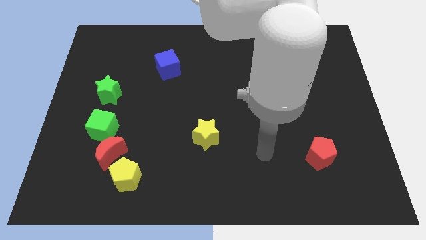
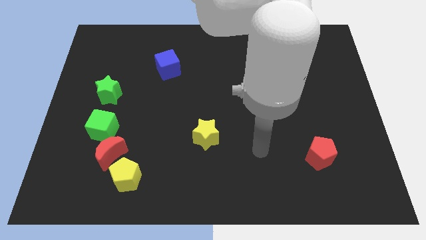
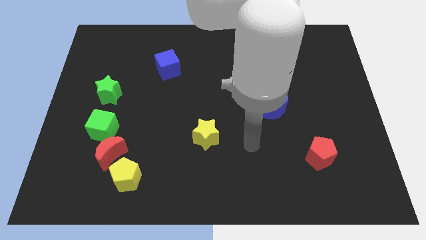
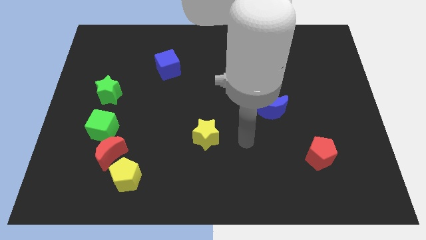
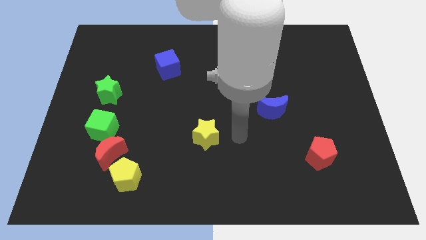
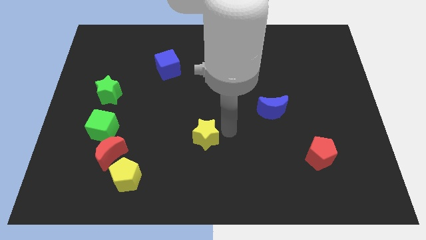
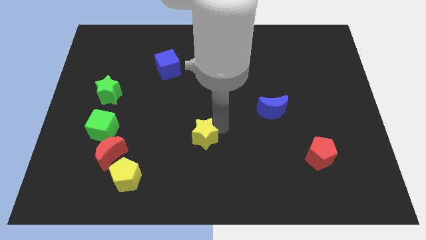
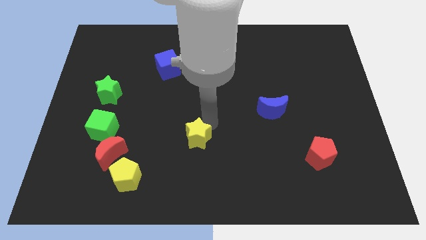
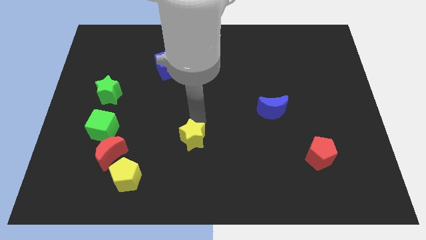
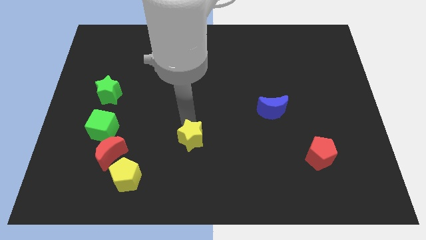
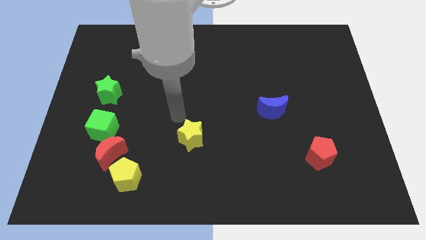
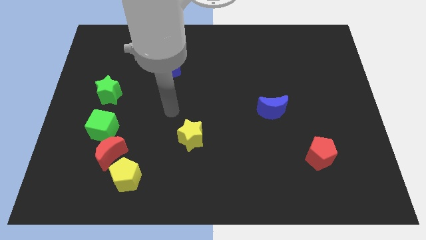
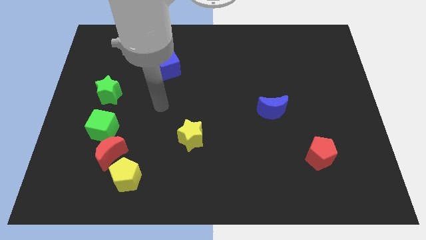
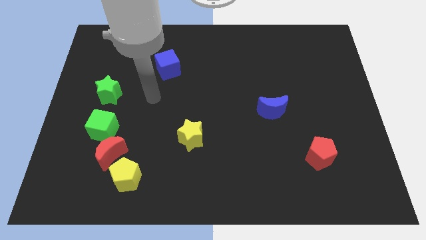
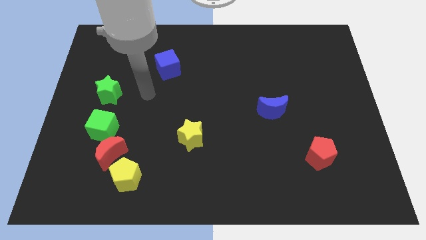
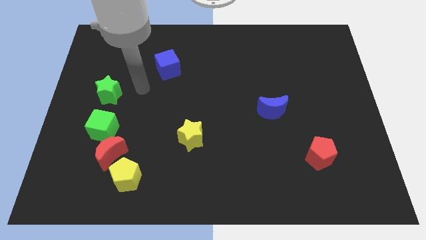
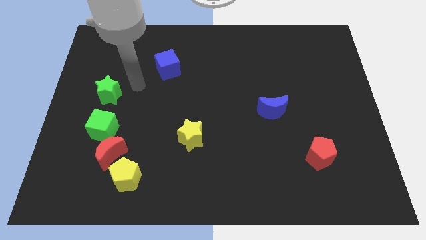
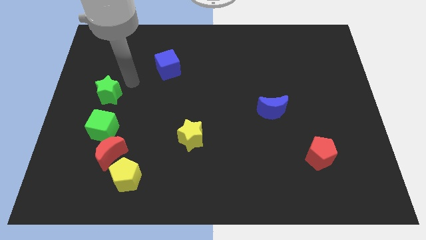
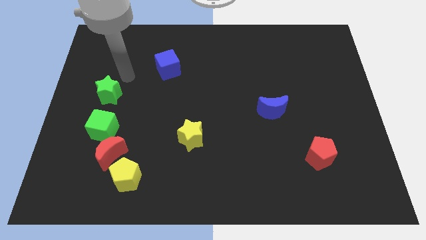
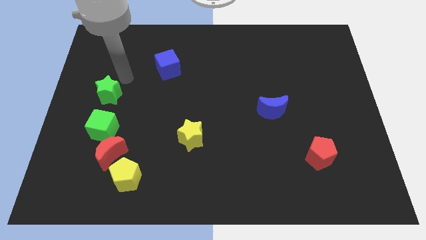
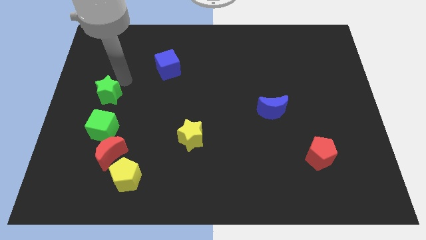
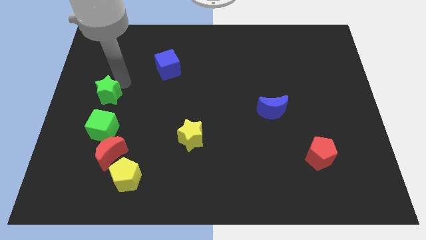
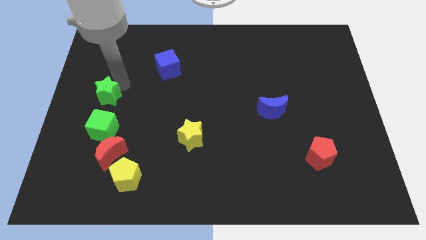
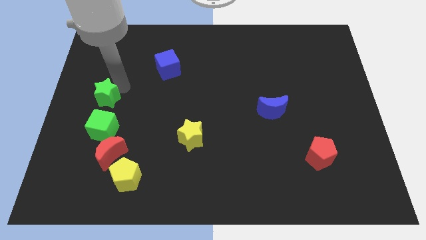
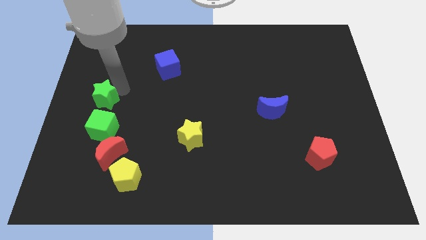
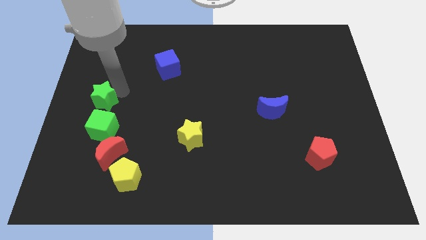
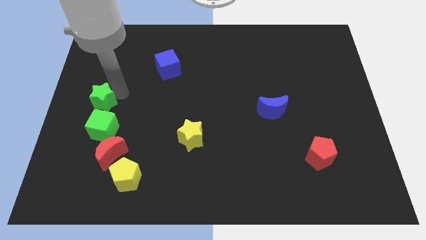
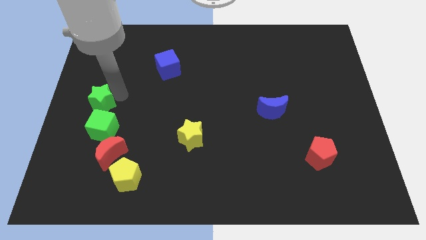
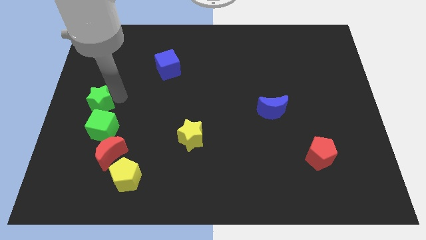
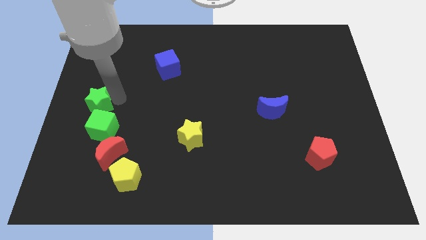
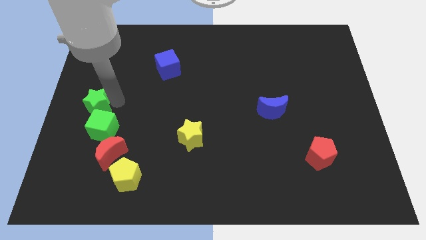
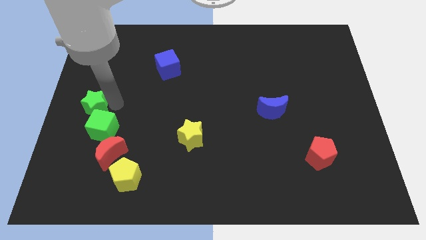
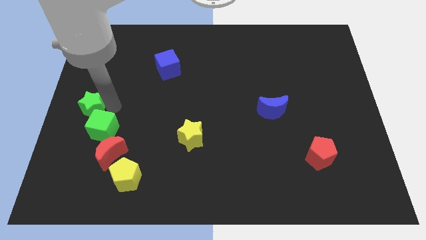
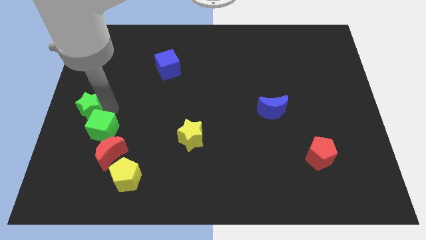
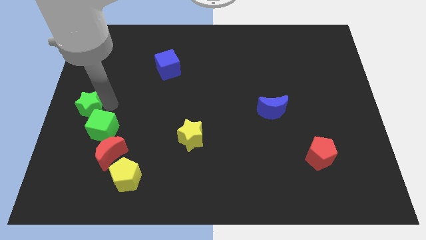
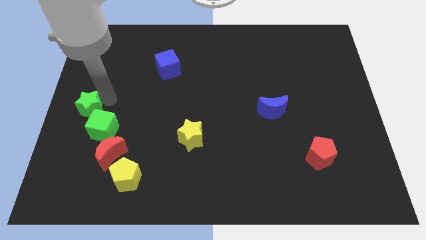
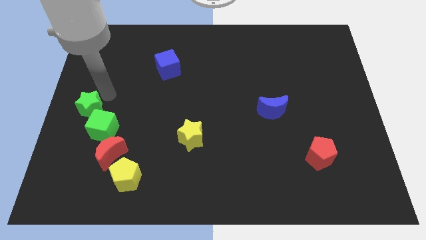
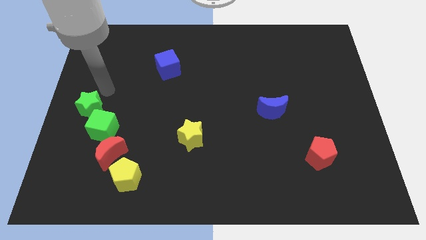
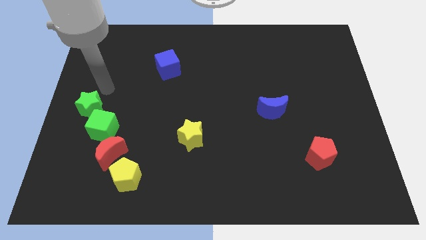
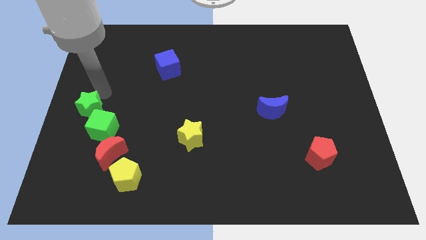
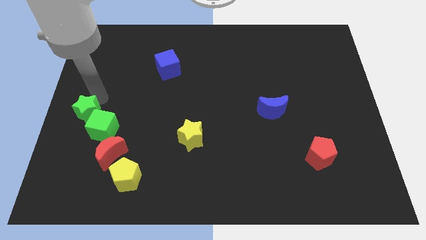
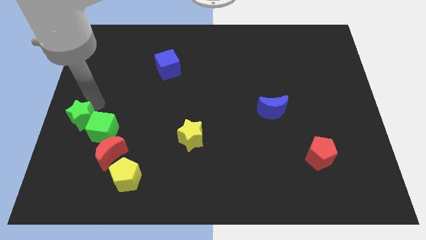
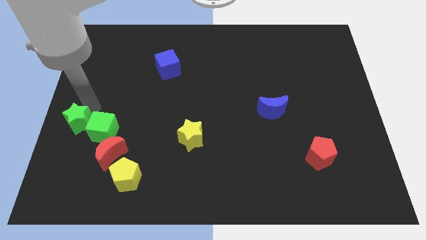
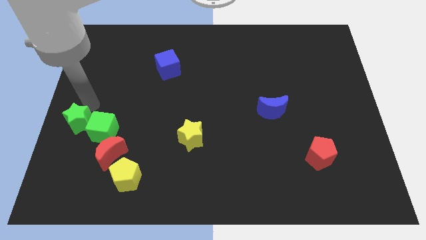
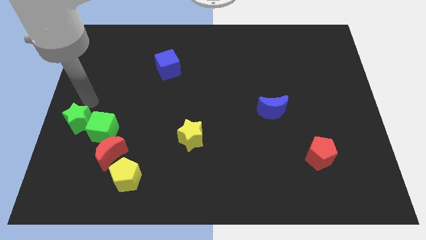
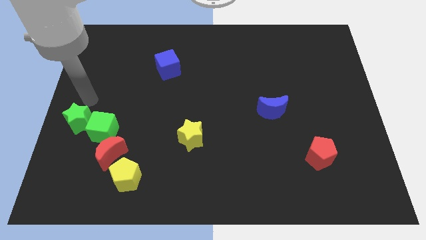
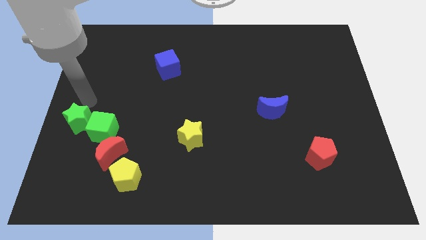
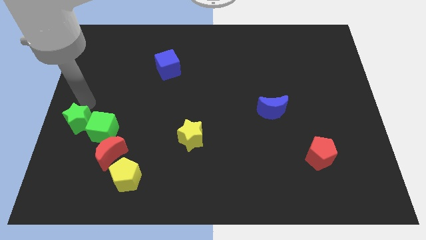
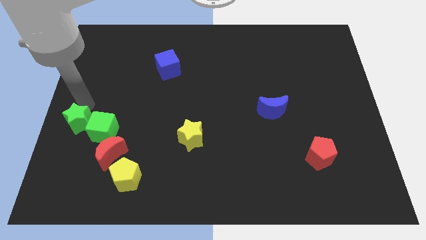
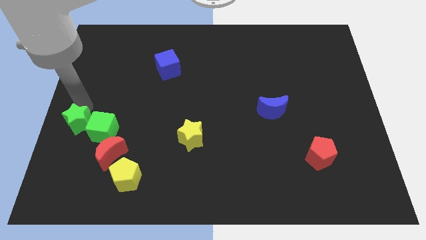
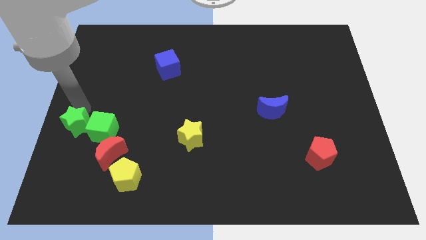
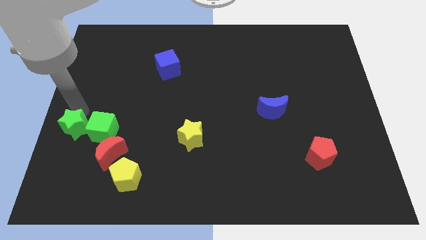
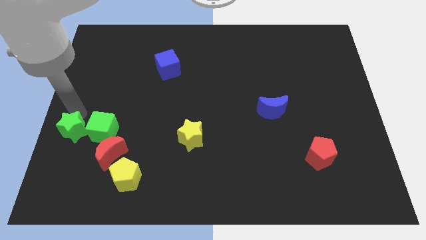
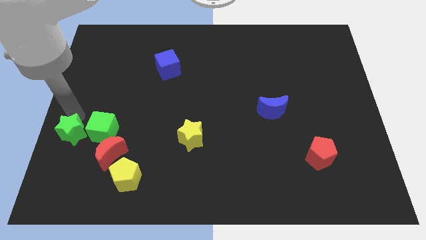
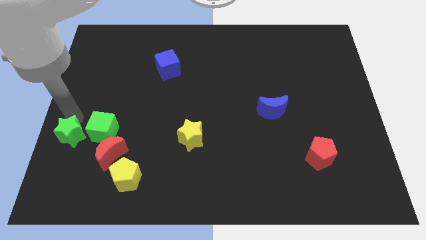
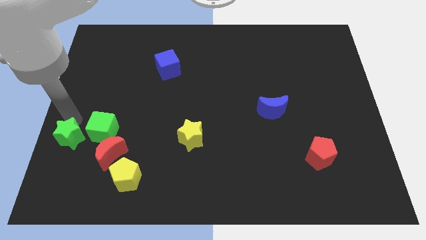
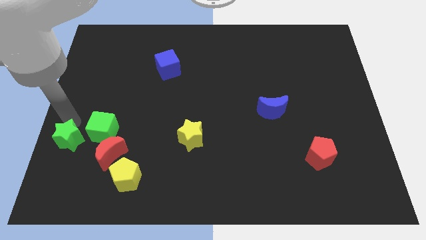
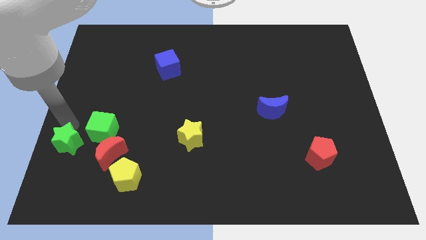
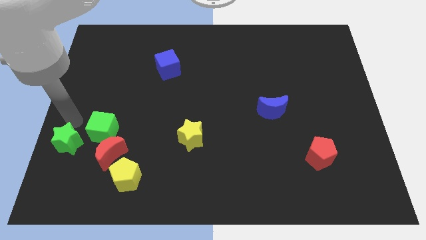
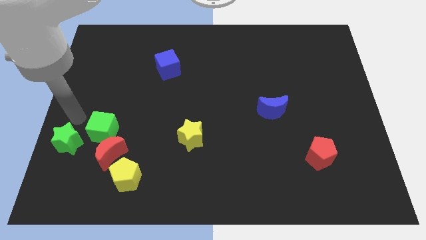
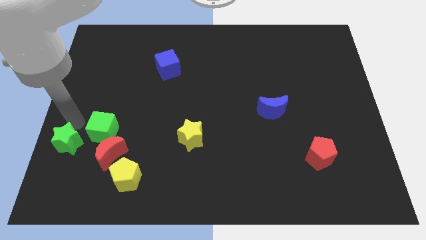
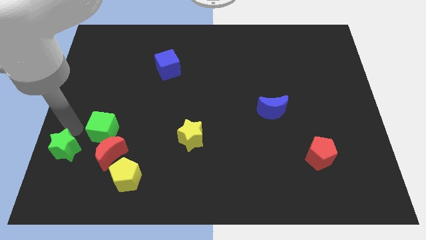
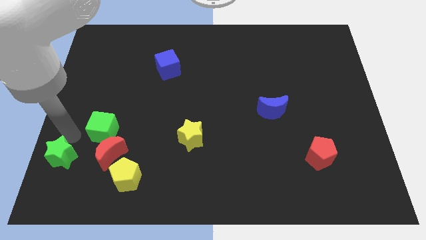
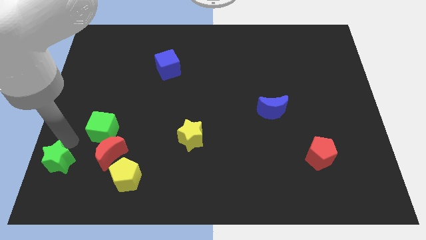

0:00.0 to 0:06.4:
put the green star to the bottom left
